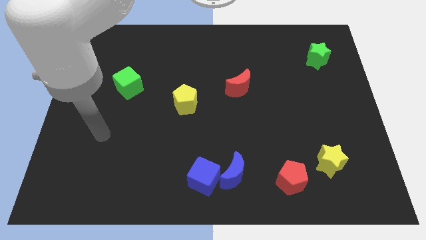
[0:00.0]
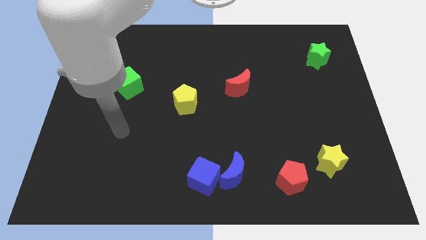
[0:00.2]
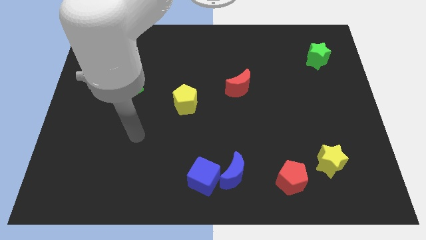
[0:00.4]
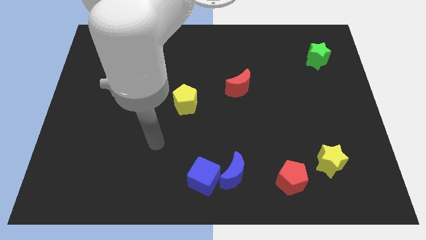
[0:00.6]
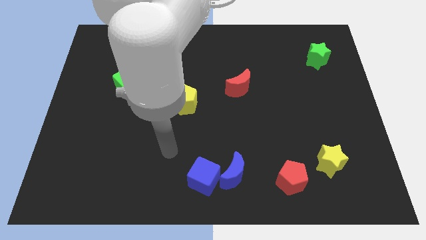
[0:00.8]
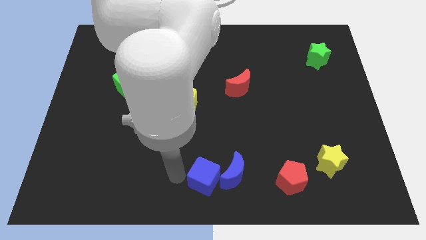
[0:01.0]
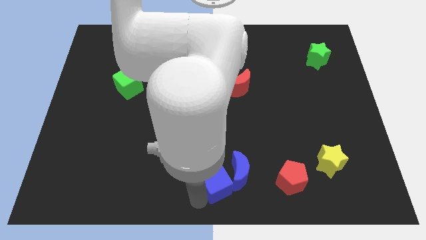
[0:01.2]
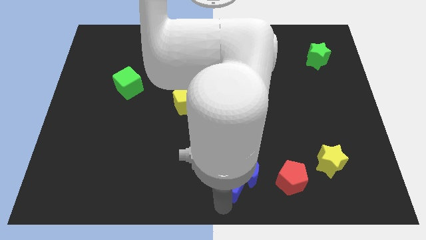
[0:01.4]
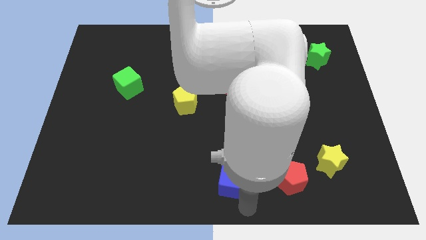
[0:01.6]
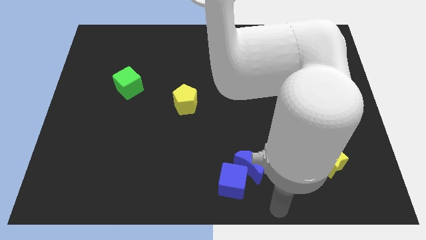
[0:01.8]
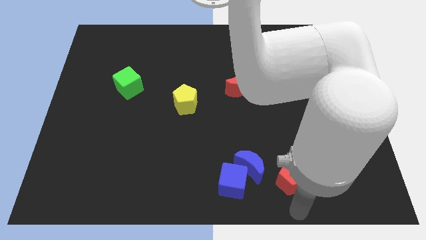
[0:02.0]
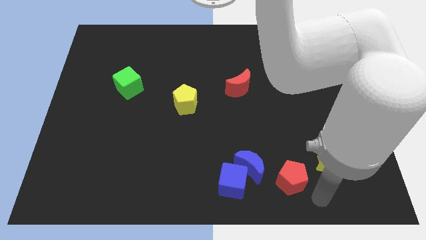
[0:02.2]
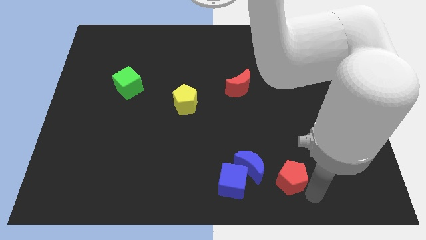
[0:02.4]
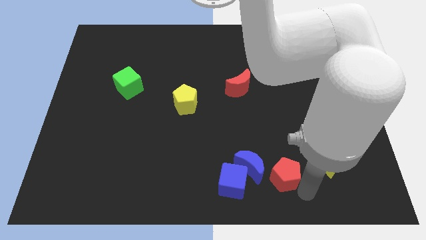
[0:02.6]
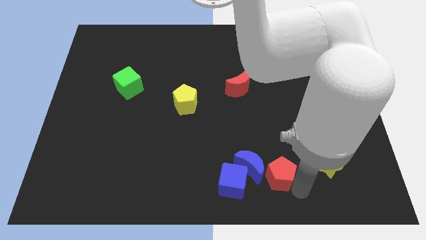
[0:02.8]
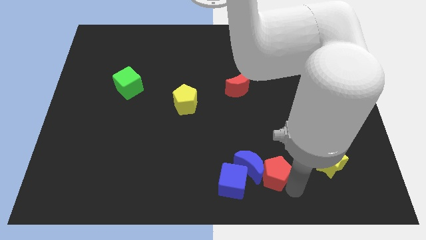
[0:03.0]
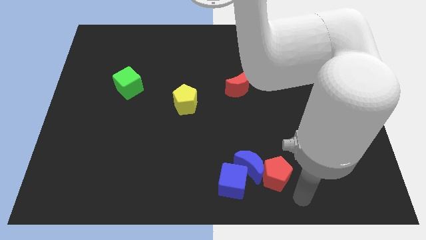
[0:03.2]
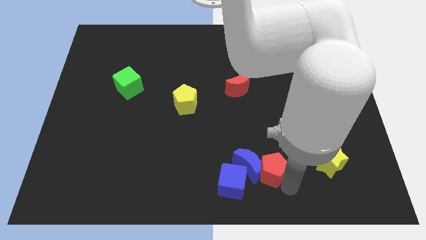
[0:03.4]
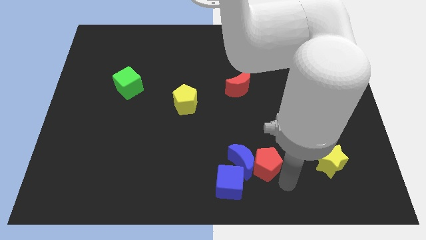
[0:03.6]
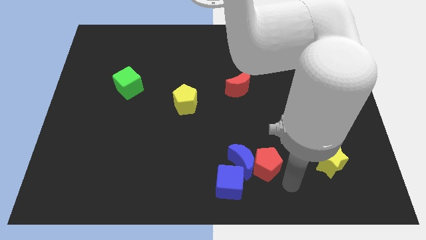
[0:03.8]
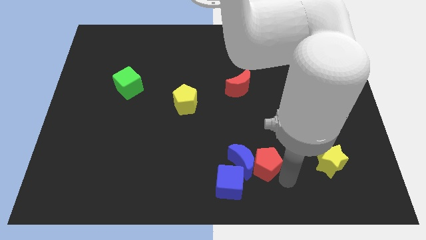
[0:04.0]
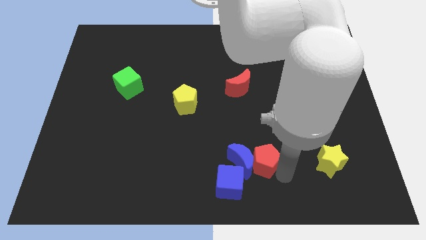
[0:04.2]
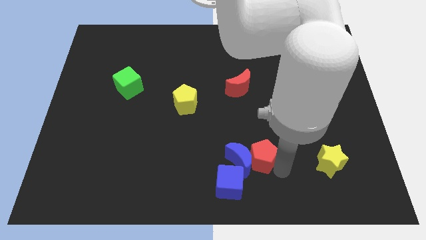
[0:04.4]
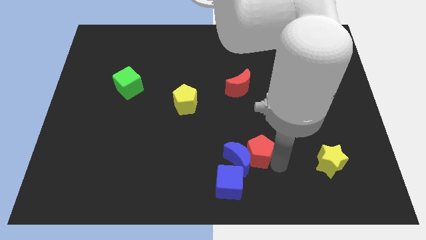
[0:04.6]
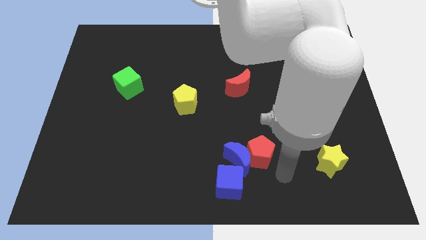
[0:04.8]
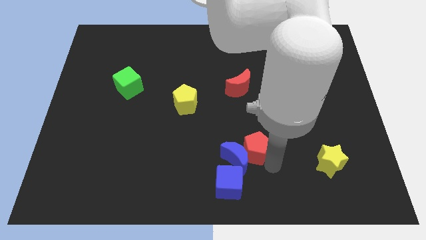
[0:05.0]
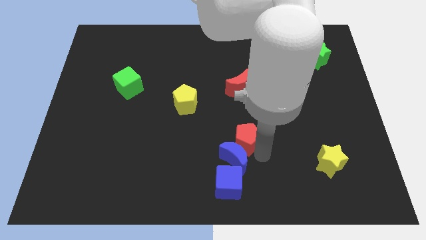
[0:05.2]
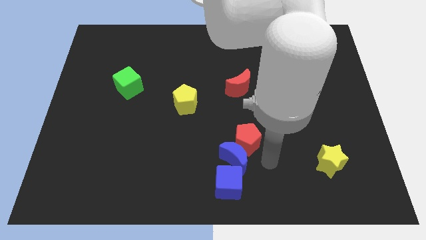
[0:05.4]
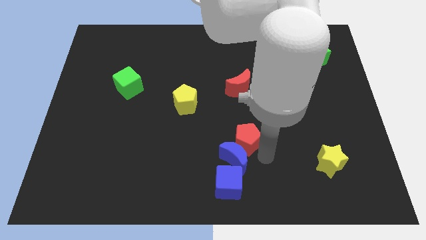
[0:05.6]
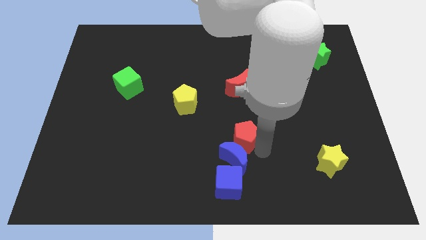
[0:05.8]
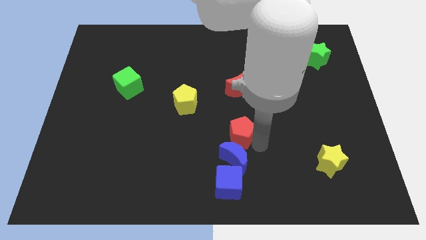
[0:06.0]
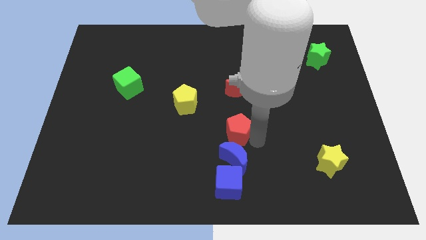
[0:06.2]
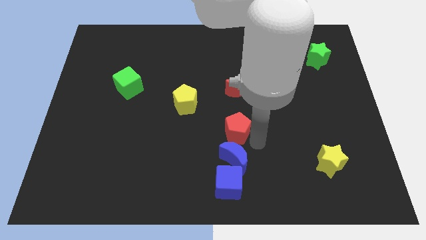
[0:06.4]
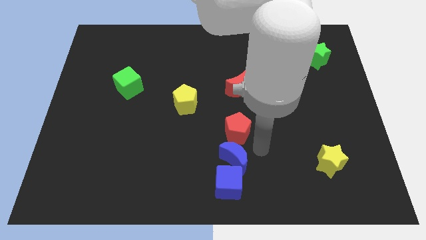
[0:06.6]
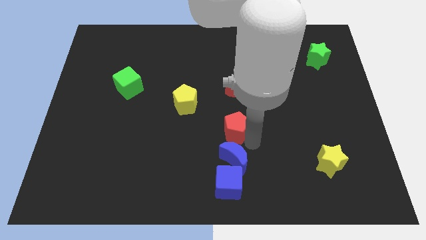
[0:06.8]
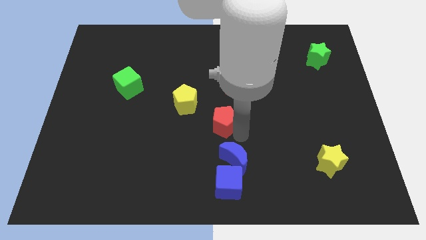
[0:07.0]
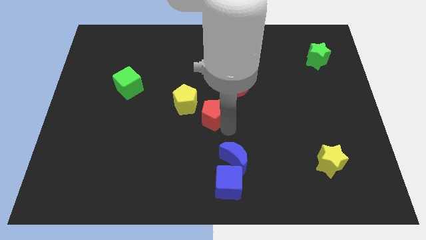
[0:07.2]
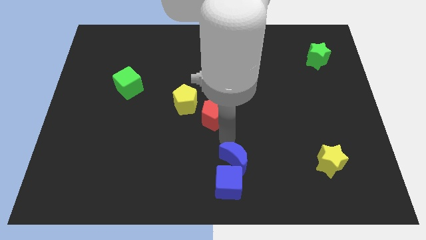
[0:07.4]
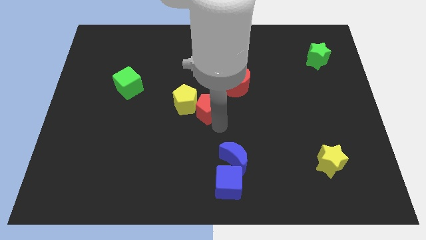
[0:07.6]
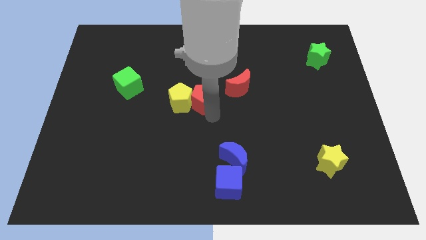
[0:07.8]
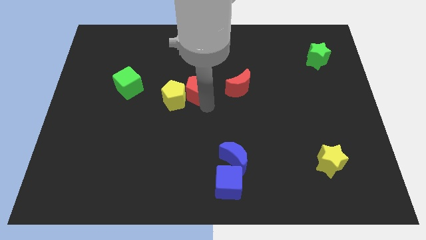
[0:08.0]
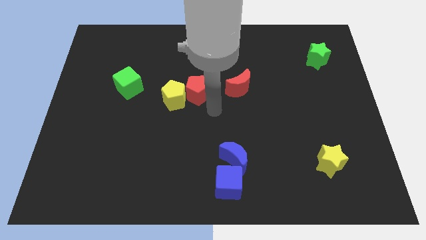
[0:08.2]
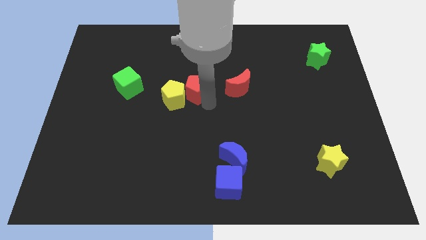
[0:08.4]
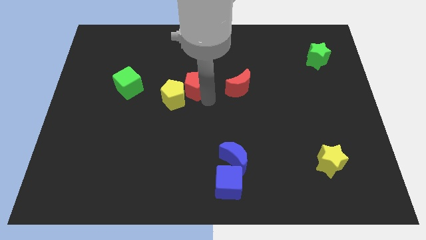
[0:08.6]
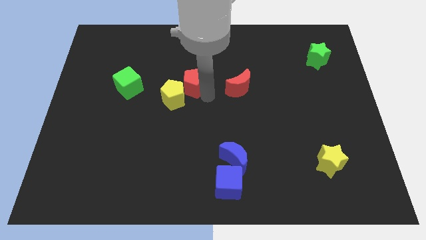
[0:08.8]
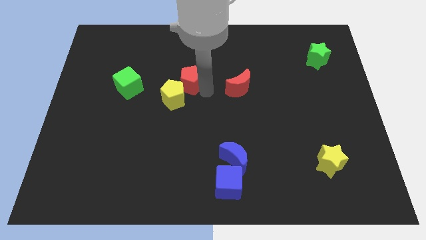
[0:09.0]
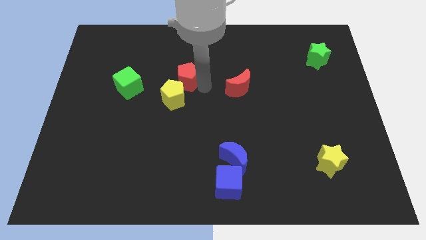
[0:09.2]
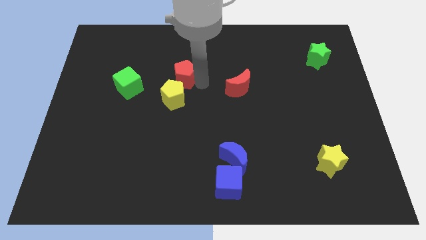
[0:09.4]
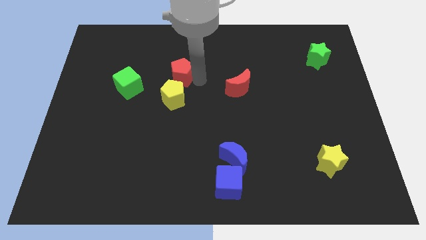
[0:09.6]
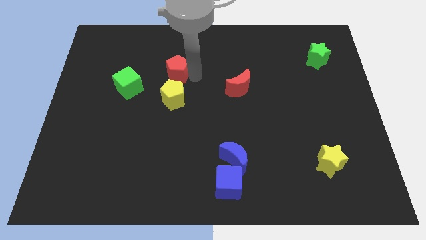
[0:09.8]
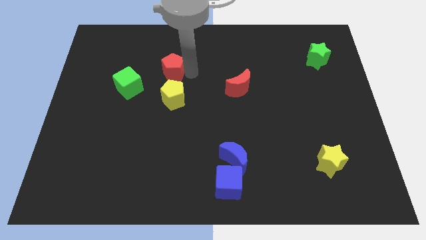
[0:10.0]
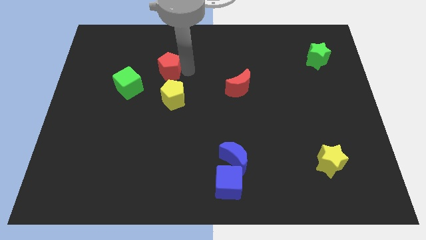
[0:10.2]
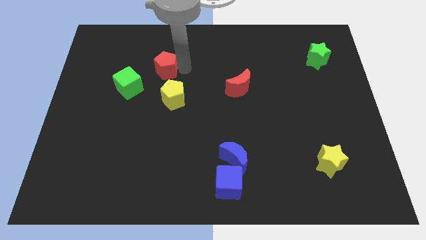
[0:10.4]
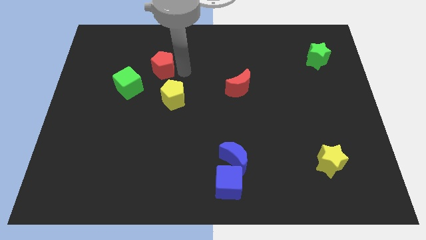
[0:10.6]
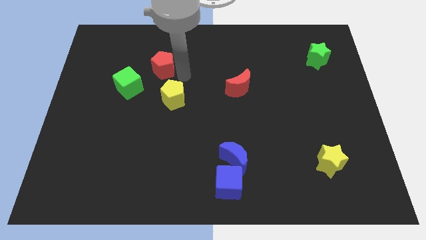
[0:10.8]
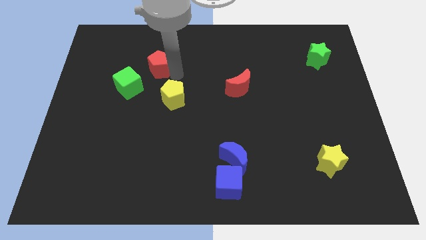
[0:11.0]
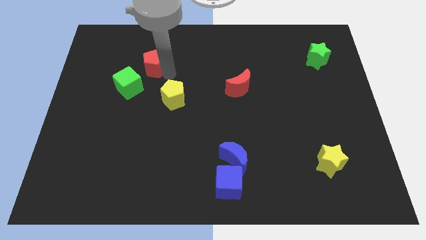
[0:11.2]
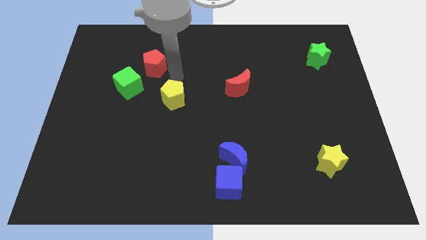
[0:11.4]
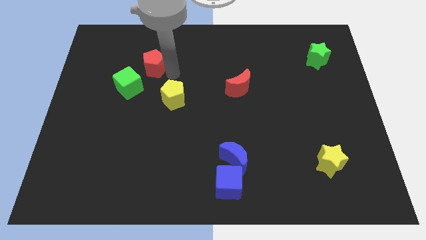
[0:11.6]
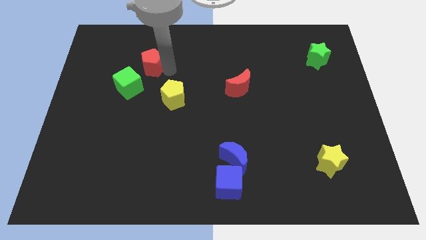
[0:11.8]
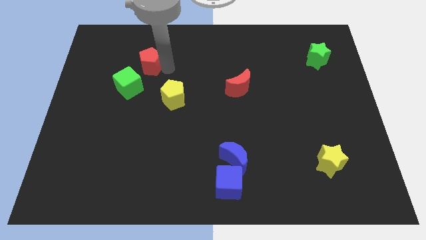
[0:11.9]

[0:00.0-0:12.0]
put the red pentagon to the top of the green cube

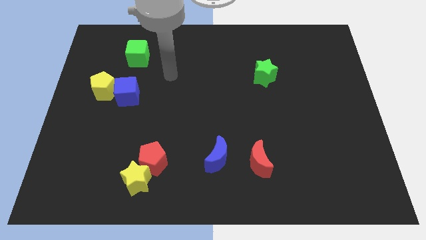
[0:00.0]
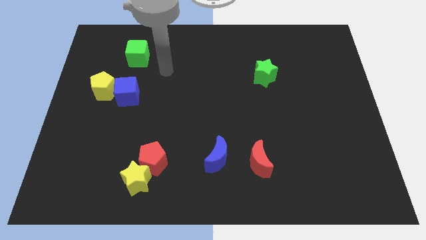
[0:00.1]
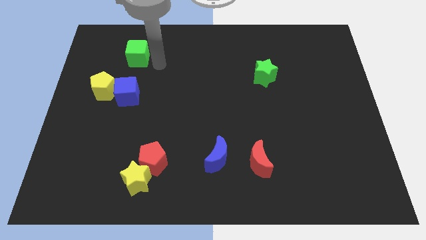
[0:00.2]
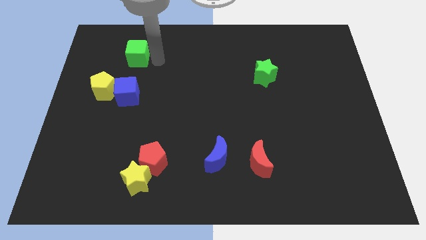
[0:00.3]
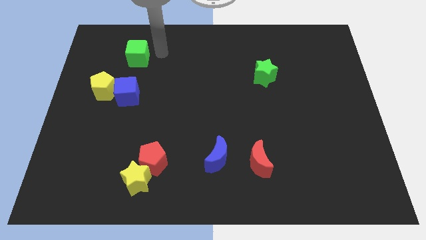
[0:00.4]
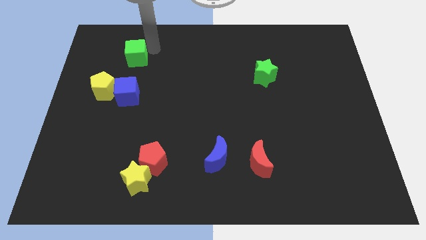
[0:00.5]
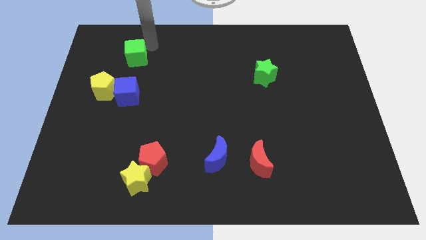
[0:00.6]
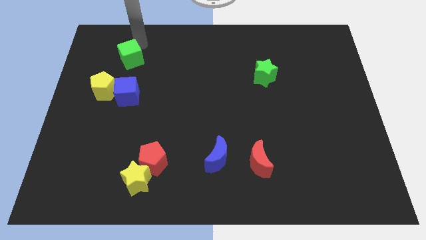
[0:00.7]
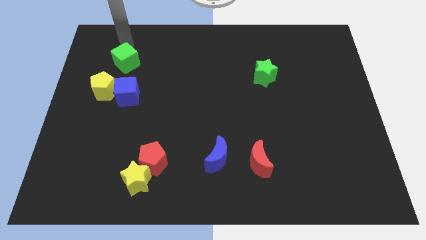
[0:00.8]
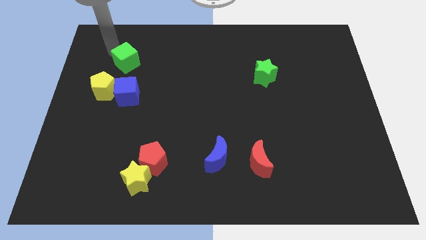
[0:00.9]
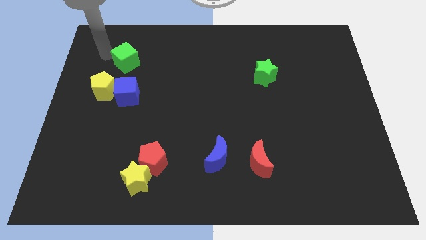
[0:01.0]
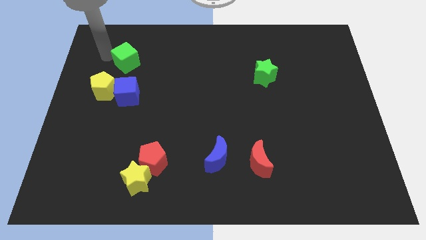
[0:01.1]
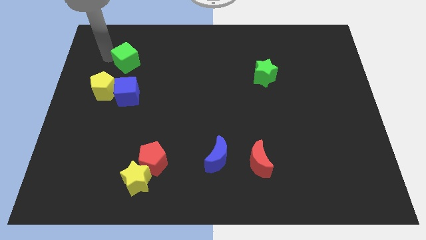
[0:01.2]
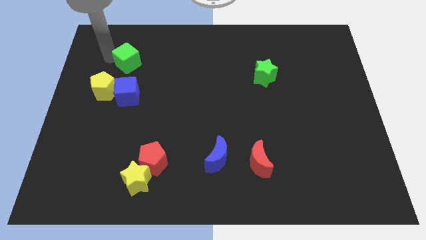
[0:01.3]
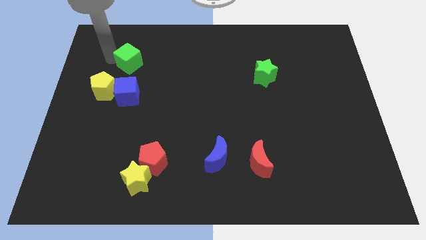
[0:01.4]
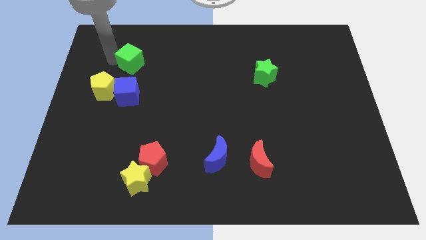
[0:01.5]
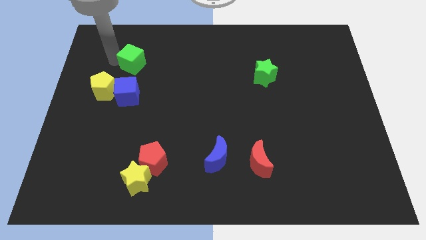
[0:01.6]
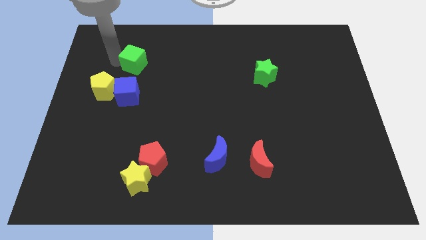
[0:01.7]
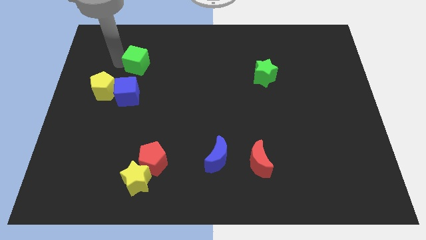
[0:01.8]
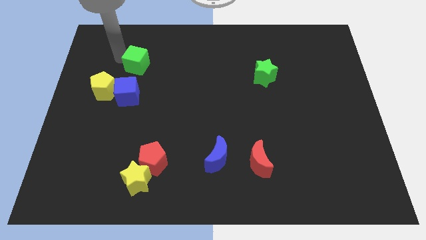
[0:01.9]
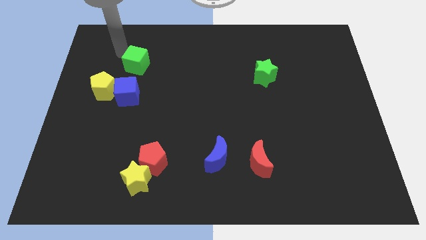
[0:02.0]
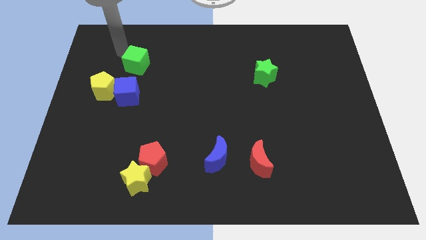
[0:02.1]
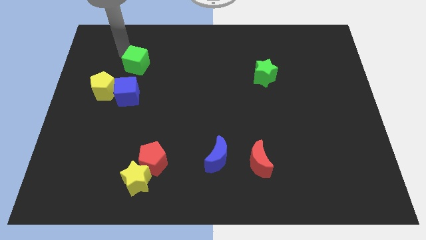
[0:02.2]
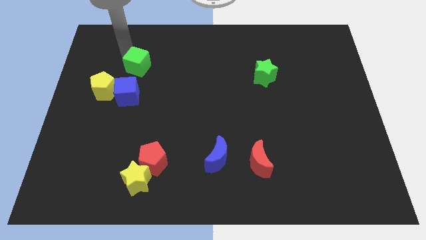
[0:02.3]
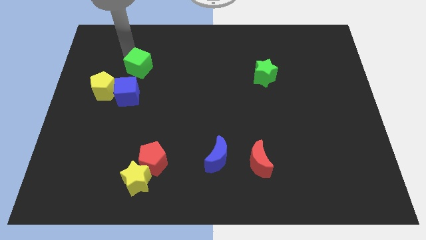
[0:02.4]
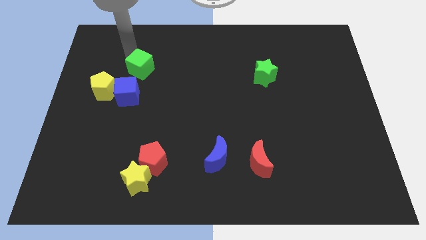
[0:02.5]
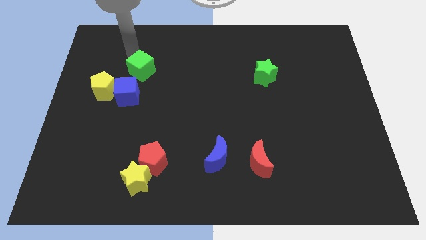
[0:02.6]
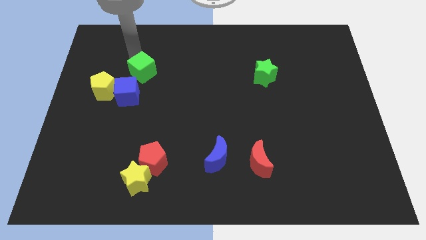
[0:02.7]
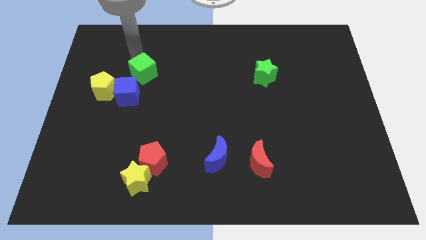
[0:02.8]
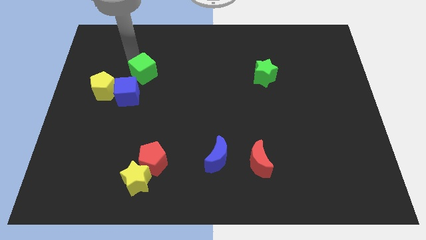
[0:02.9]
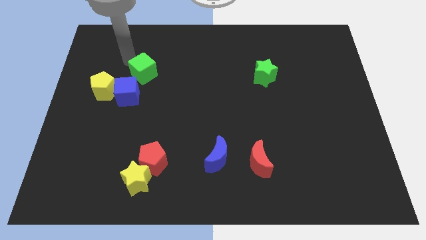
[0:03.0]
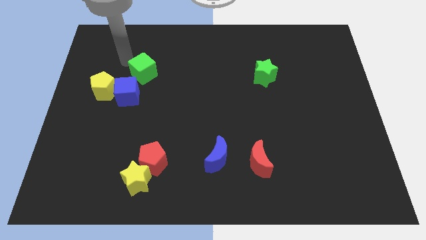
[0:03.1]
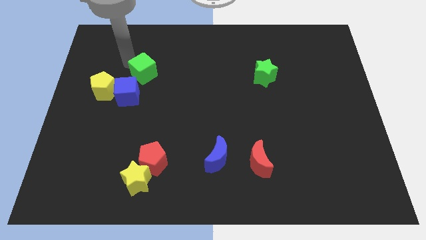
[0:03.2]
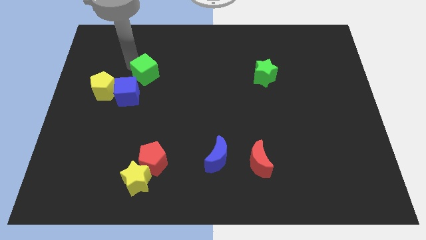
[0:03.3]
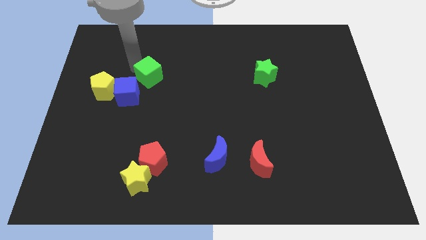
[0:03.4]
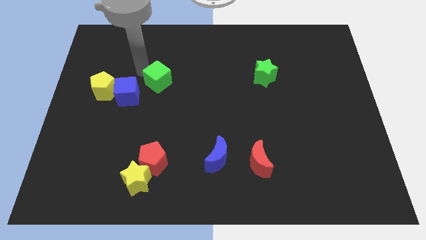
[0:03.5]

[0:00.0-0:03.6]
move the green cube to the right side of the blue cube
